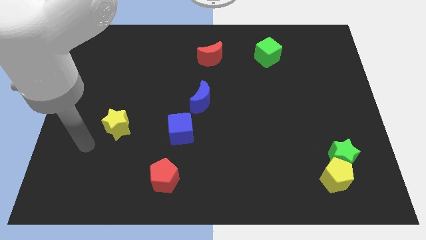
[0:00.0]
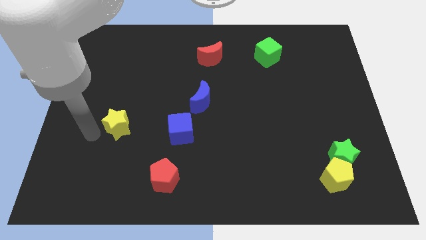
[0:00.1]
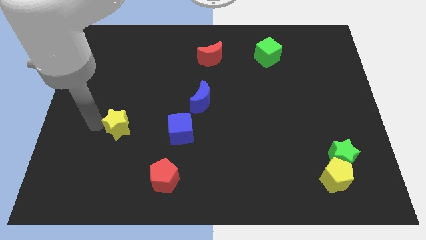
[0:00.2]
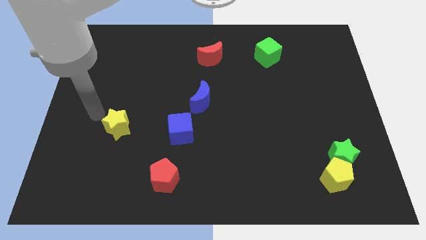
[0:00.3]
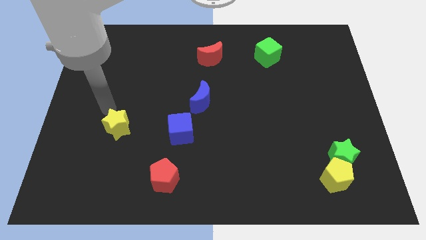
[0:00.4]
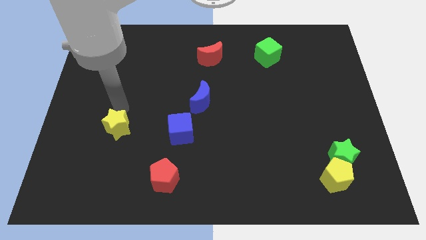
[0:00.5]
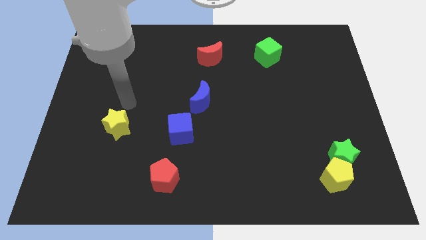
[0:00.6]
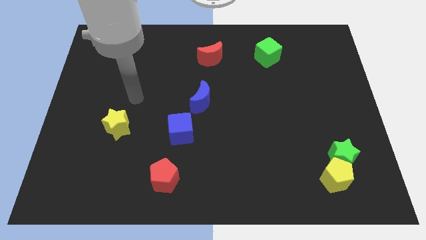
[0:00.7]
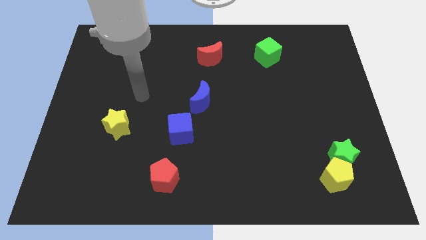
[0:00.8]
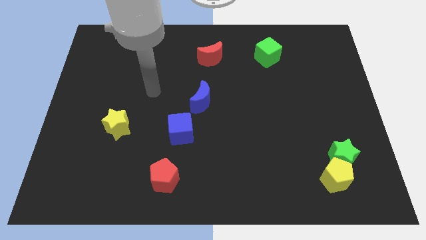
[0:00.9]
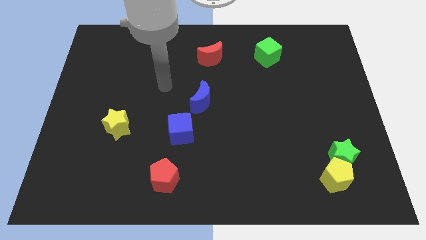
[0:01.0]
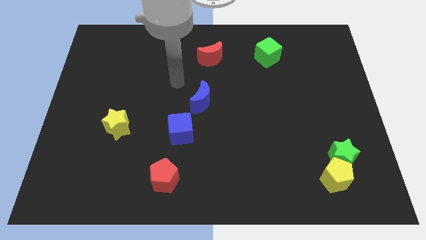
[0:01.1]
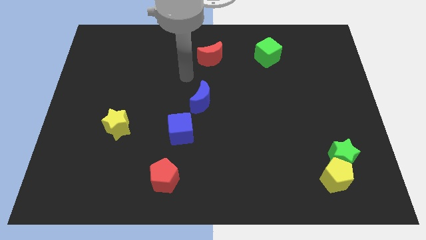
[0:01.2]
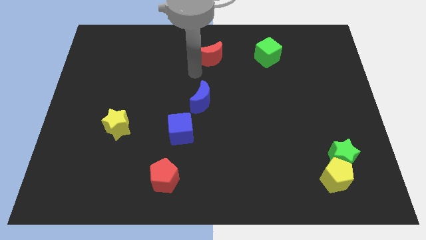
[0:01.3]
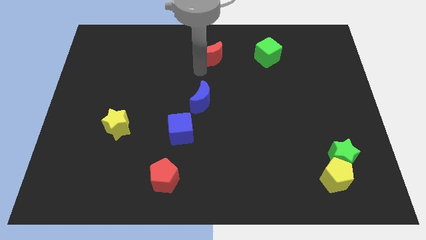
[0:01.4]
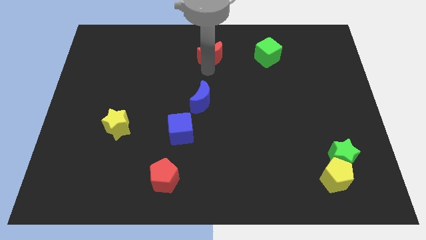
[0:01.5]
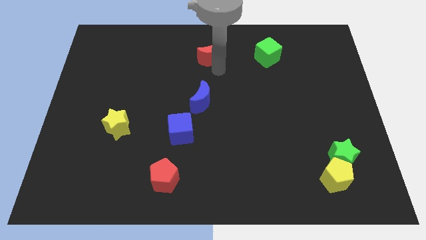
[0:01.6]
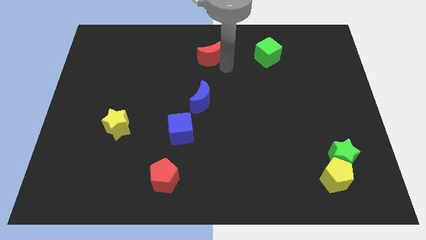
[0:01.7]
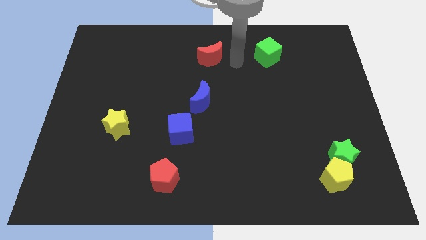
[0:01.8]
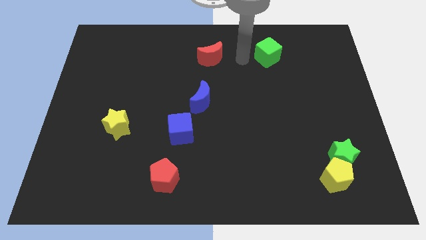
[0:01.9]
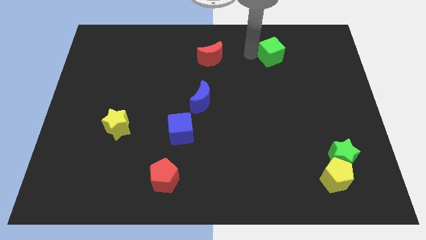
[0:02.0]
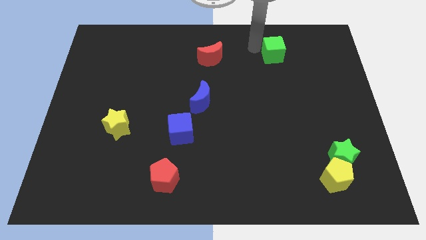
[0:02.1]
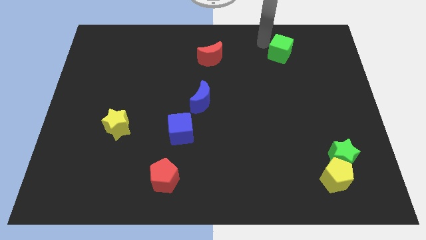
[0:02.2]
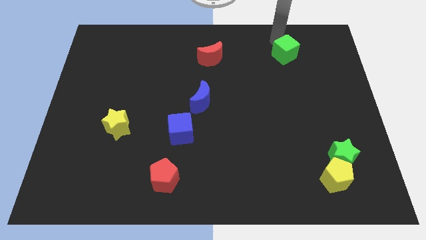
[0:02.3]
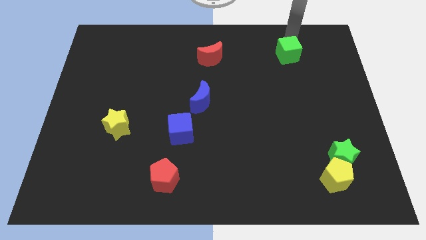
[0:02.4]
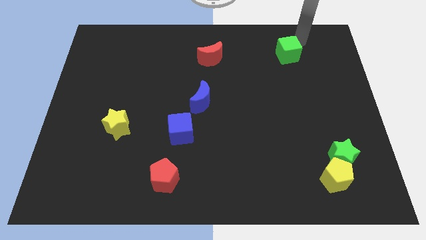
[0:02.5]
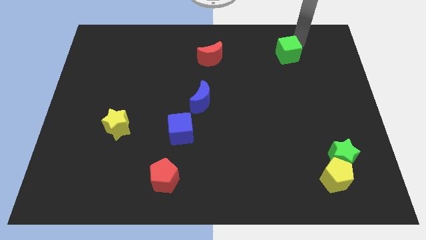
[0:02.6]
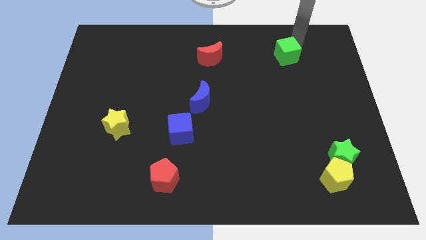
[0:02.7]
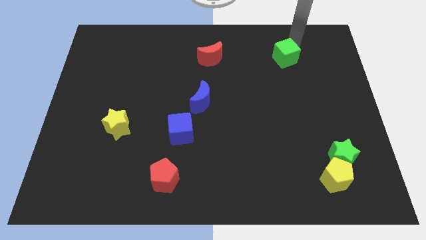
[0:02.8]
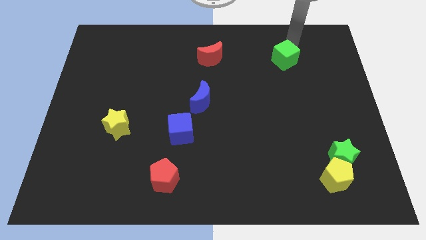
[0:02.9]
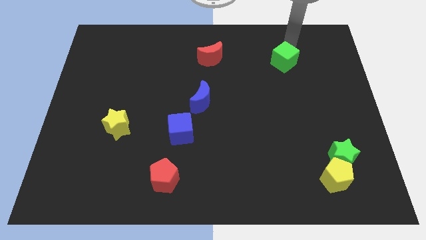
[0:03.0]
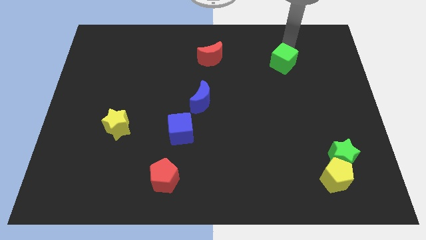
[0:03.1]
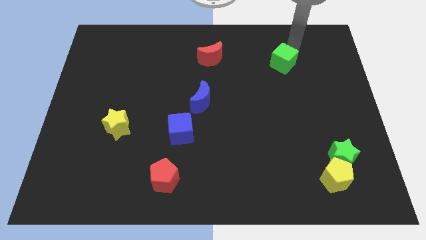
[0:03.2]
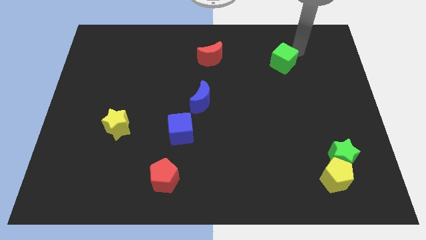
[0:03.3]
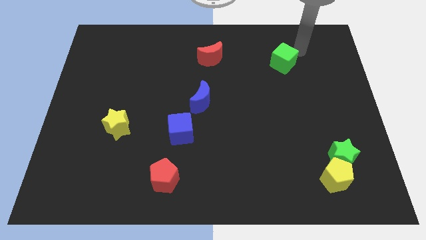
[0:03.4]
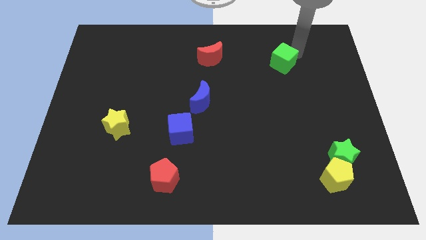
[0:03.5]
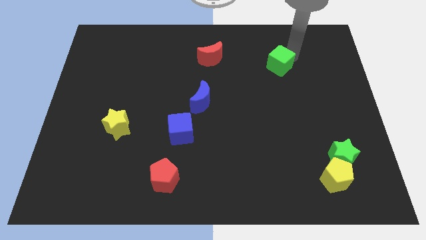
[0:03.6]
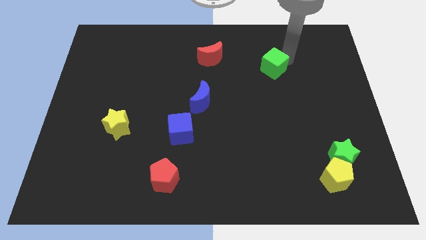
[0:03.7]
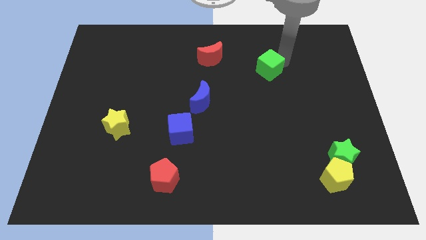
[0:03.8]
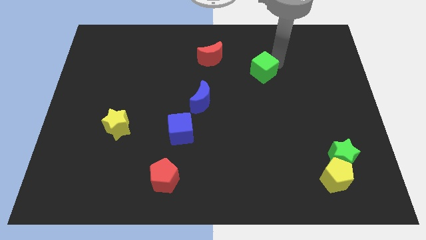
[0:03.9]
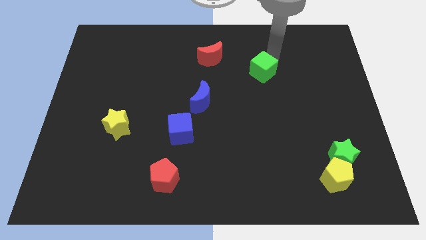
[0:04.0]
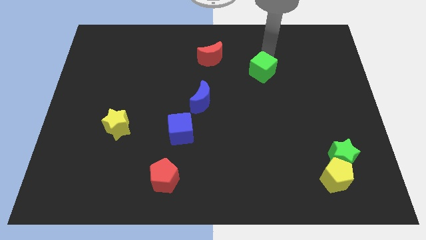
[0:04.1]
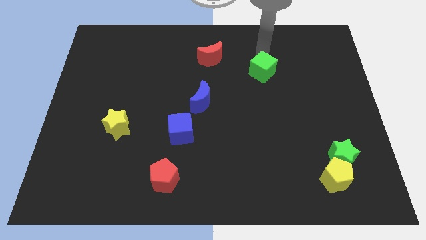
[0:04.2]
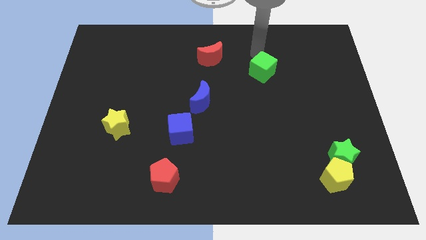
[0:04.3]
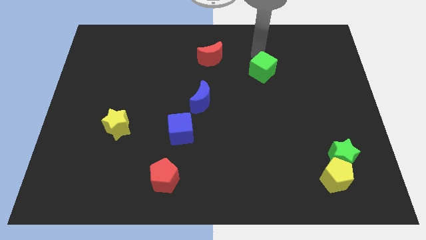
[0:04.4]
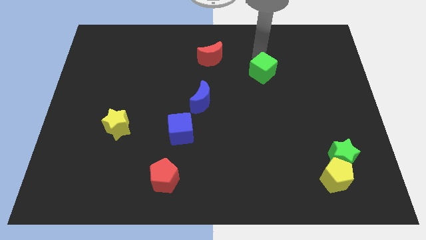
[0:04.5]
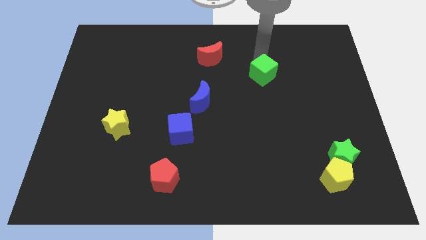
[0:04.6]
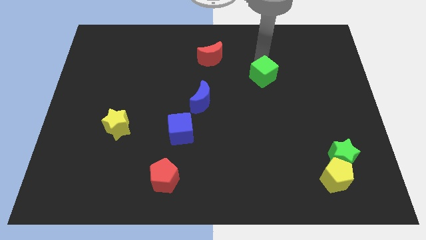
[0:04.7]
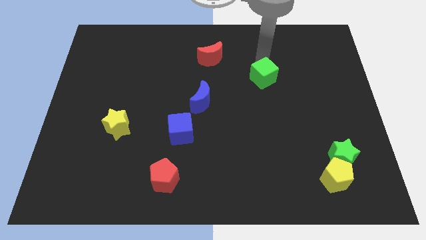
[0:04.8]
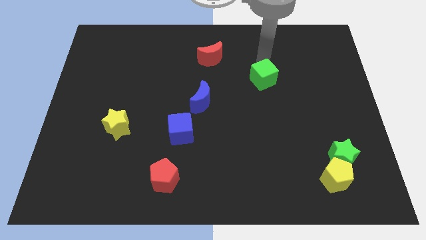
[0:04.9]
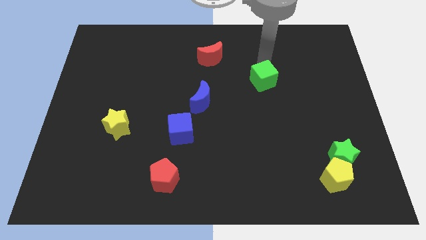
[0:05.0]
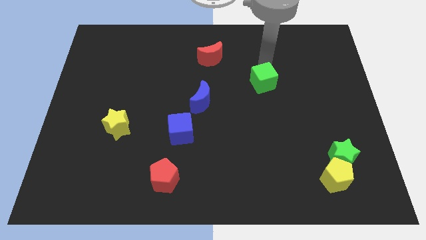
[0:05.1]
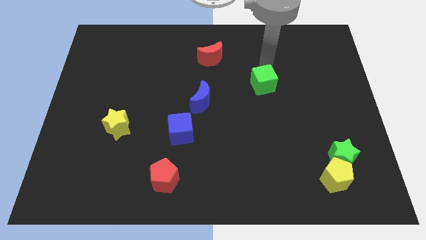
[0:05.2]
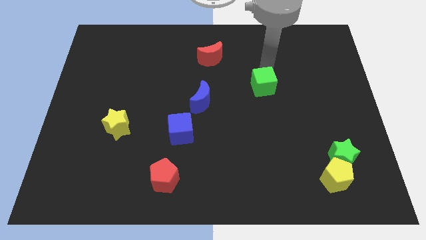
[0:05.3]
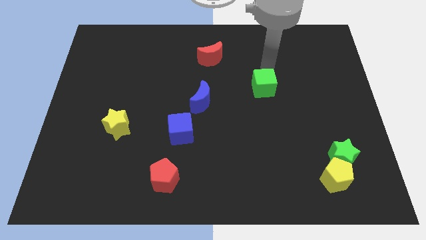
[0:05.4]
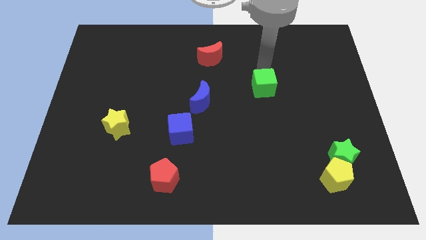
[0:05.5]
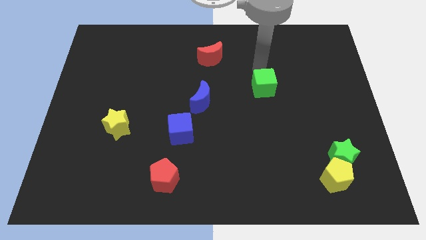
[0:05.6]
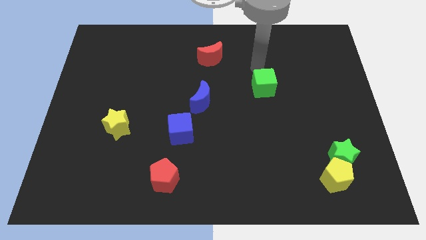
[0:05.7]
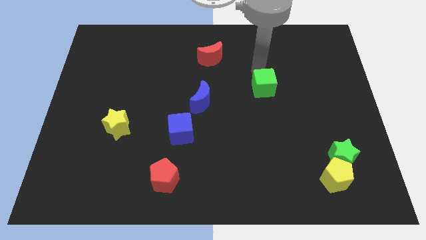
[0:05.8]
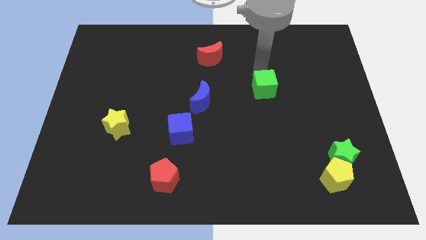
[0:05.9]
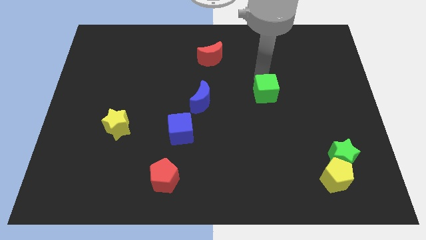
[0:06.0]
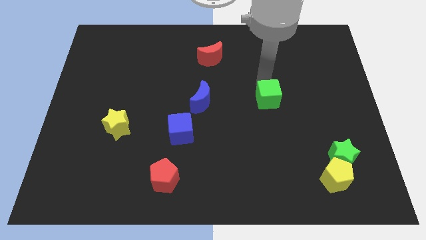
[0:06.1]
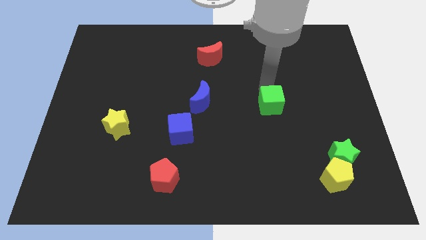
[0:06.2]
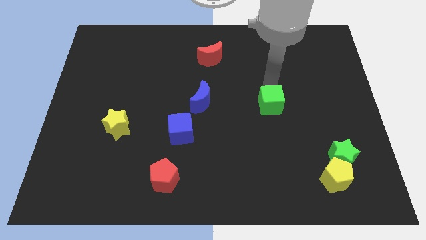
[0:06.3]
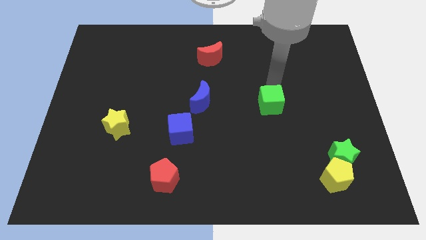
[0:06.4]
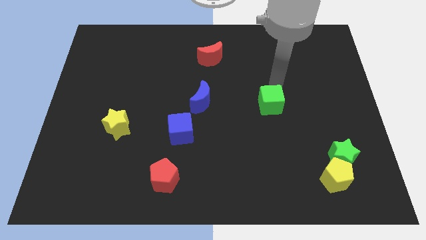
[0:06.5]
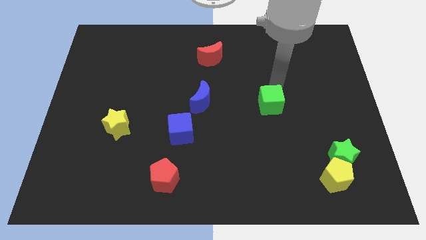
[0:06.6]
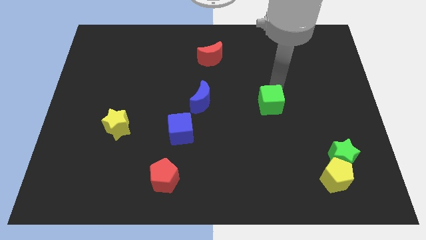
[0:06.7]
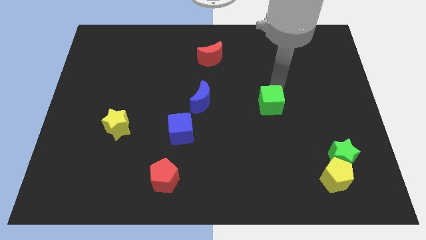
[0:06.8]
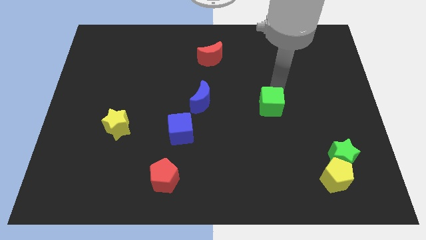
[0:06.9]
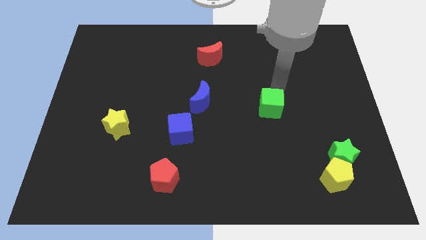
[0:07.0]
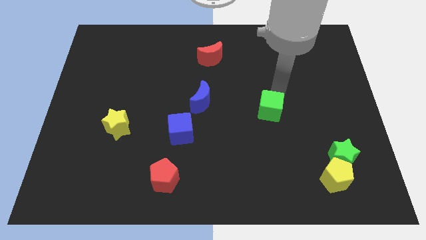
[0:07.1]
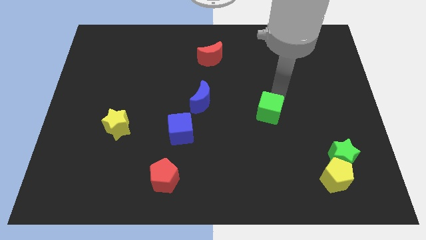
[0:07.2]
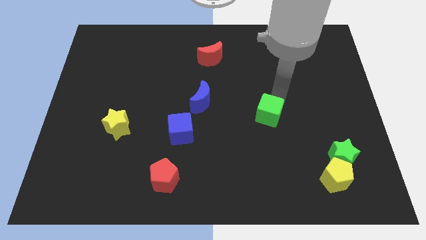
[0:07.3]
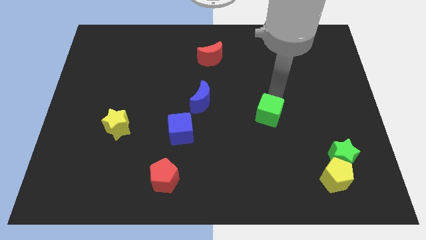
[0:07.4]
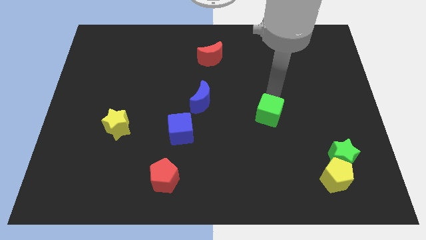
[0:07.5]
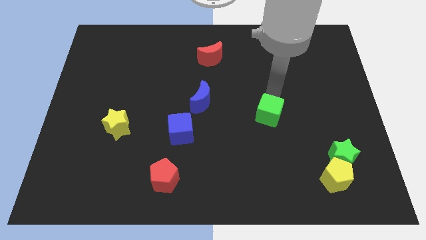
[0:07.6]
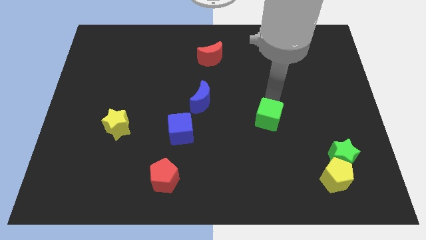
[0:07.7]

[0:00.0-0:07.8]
slide the green cube downwards

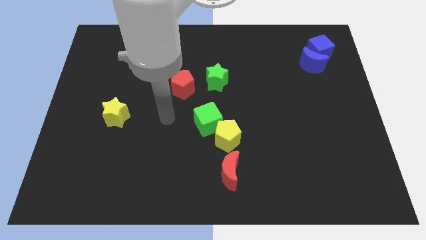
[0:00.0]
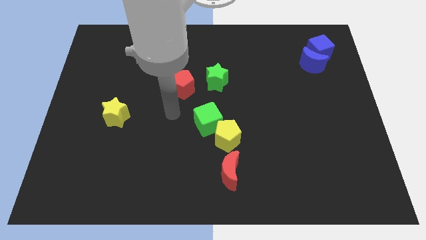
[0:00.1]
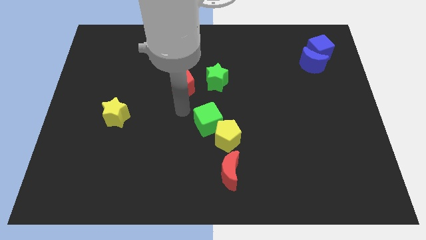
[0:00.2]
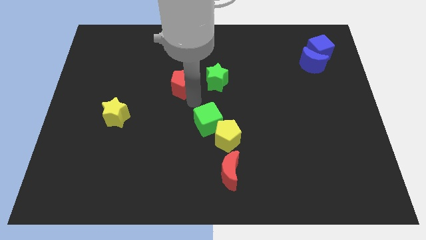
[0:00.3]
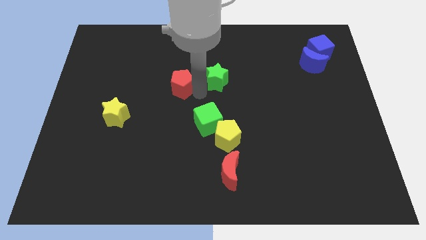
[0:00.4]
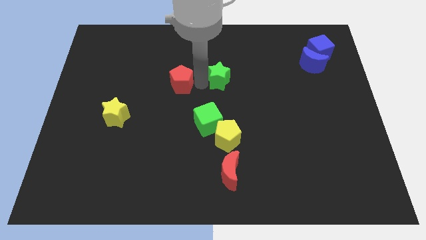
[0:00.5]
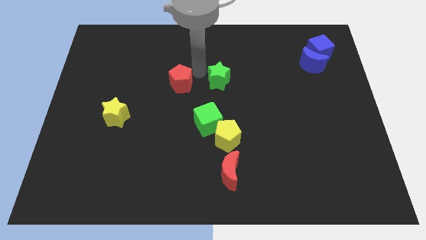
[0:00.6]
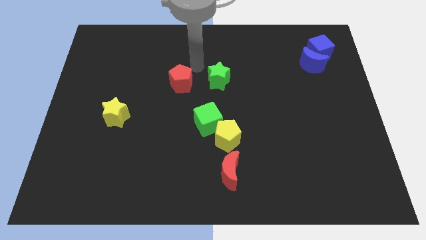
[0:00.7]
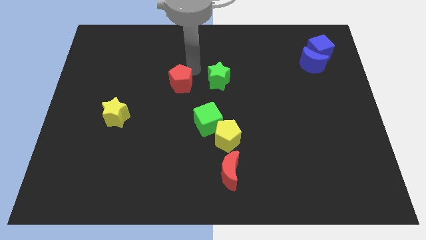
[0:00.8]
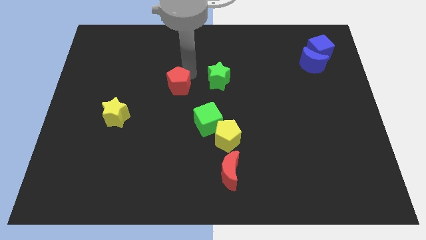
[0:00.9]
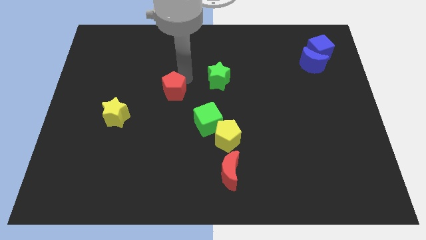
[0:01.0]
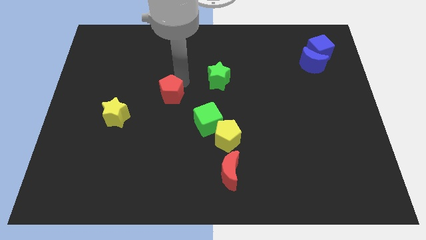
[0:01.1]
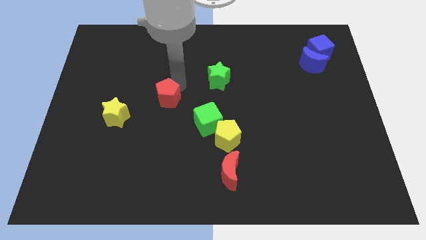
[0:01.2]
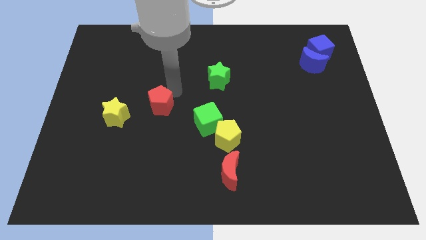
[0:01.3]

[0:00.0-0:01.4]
slide the red pentagon down and then left slightly
